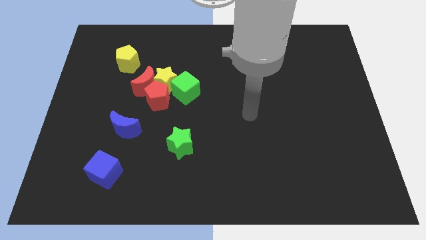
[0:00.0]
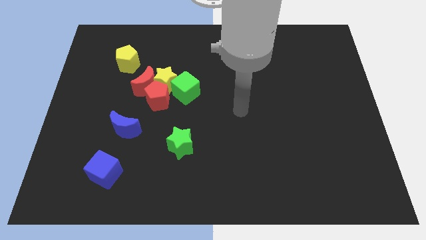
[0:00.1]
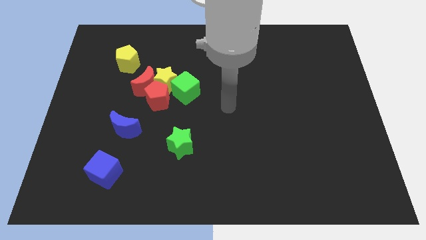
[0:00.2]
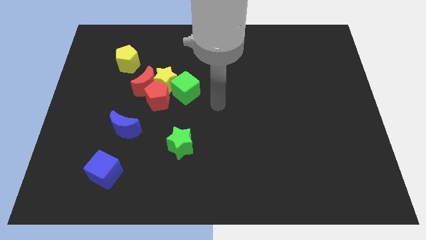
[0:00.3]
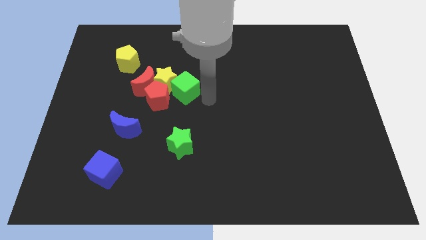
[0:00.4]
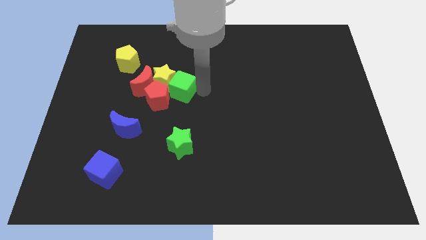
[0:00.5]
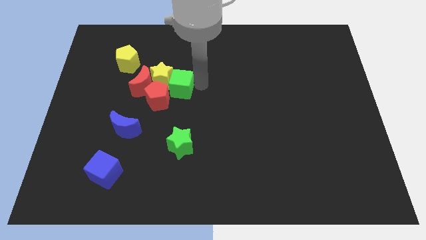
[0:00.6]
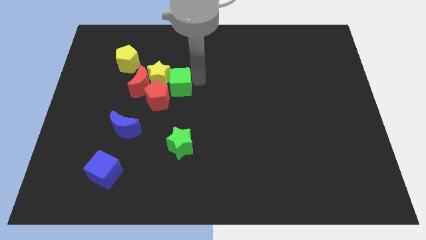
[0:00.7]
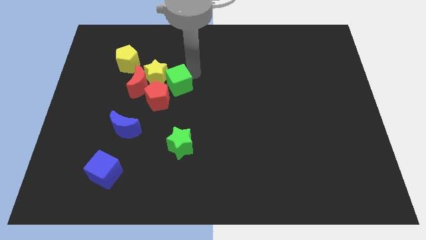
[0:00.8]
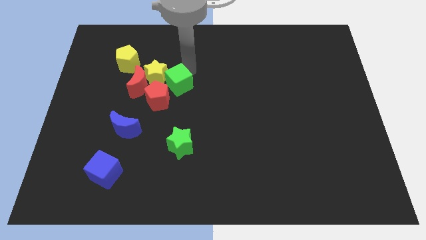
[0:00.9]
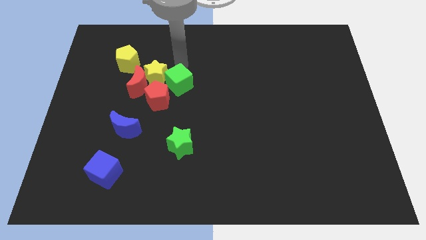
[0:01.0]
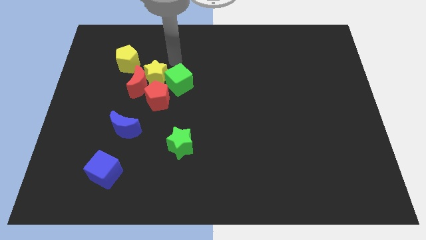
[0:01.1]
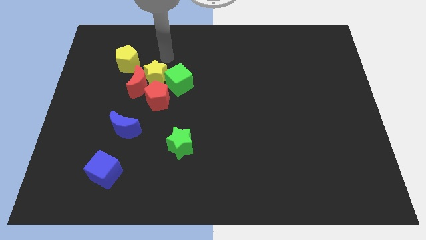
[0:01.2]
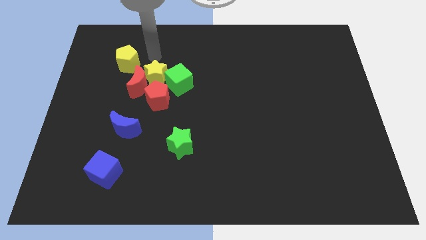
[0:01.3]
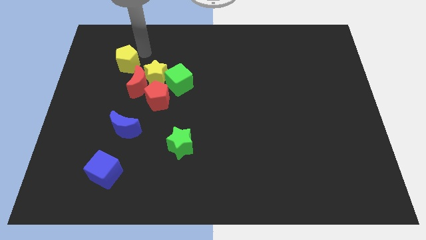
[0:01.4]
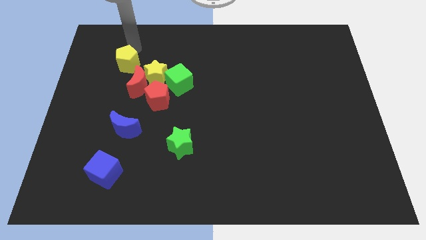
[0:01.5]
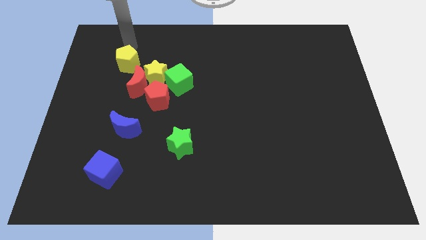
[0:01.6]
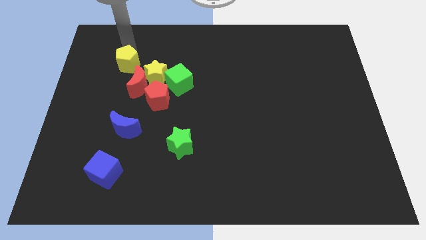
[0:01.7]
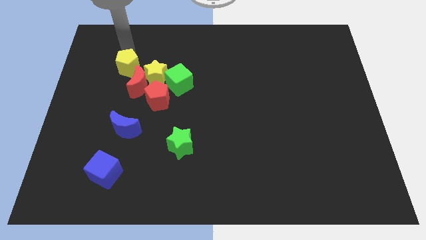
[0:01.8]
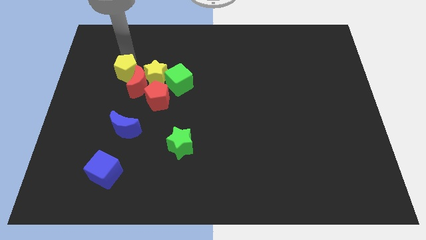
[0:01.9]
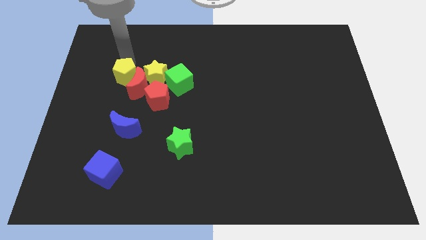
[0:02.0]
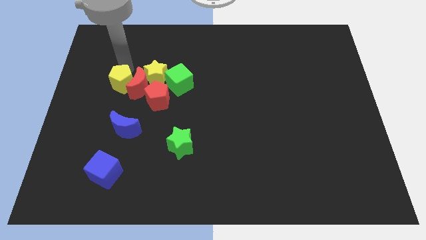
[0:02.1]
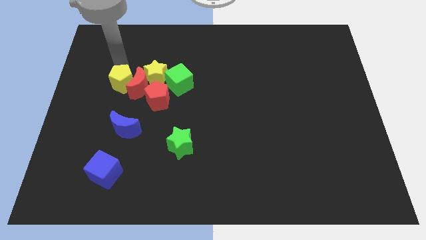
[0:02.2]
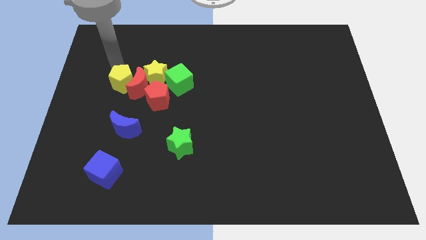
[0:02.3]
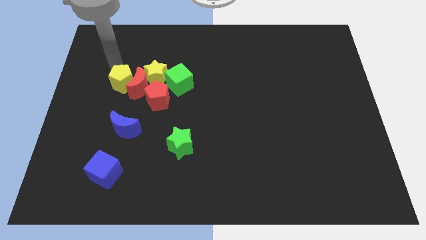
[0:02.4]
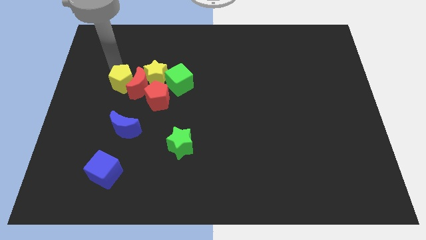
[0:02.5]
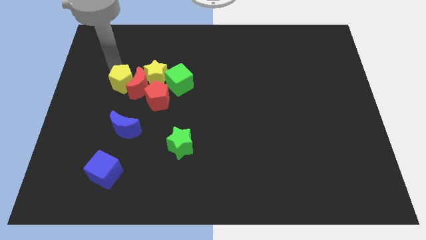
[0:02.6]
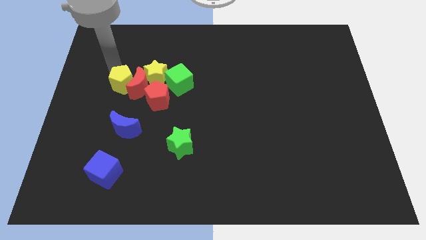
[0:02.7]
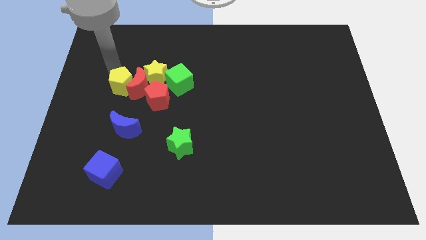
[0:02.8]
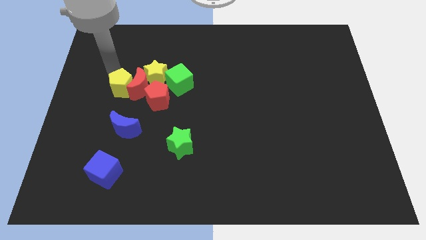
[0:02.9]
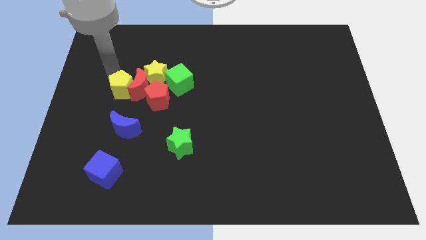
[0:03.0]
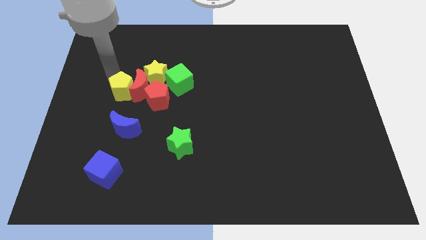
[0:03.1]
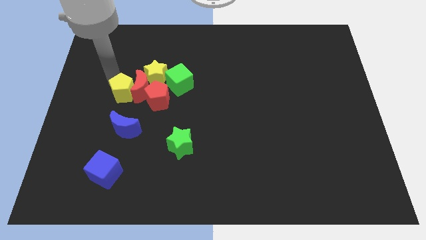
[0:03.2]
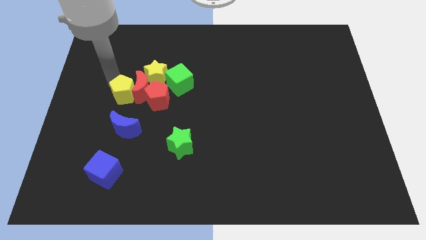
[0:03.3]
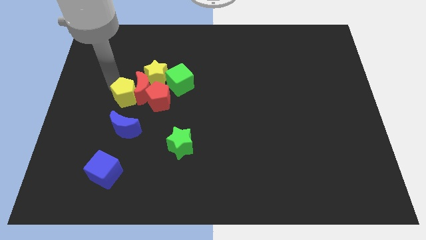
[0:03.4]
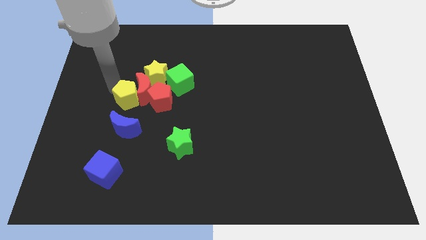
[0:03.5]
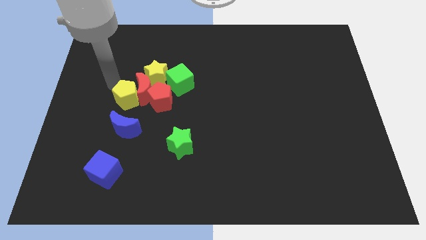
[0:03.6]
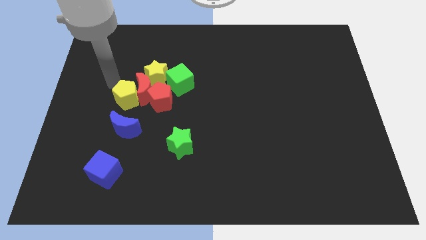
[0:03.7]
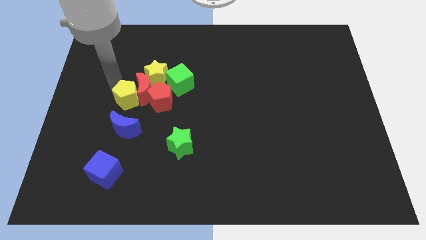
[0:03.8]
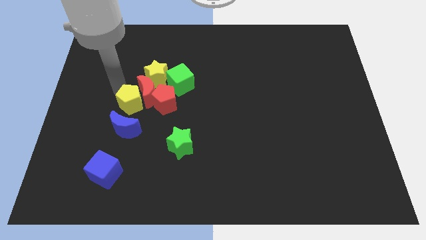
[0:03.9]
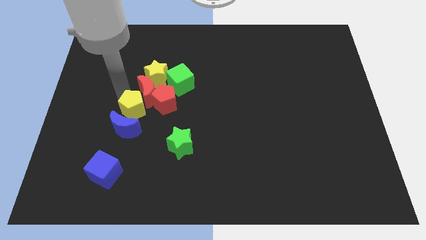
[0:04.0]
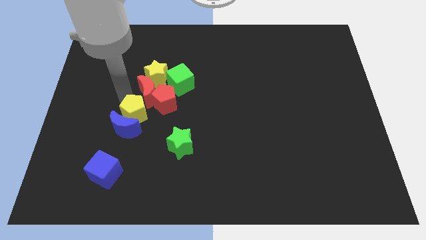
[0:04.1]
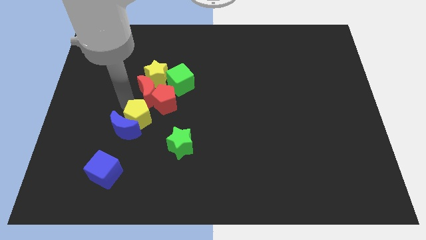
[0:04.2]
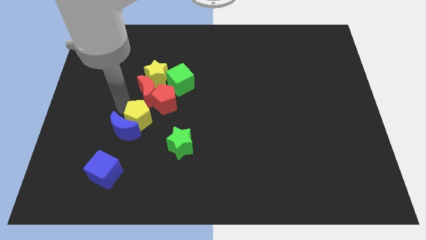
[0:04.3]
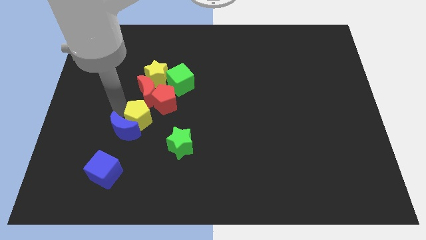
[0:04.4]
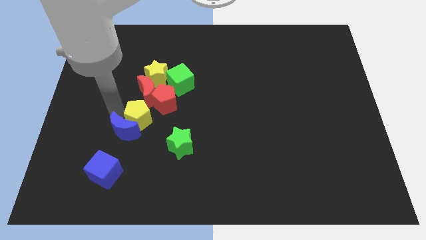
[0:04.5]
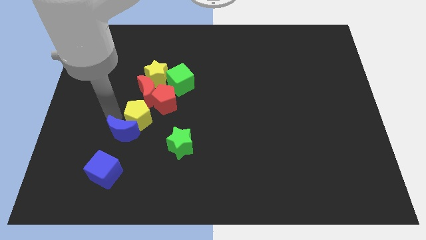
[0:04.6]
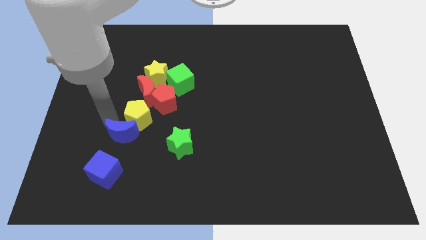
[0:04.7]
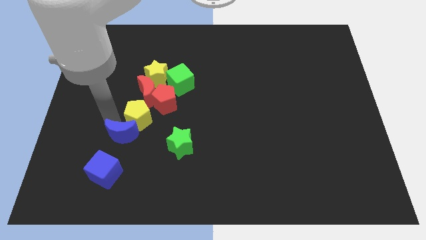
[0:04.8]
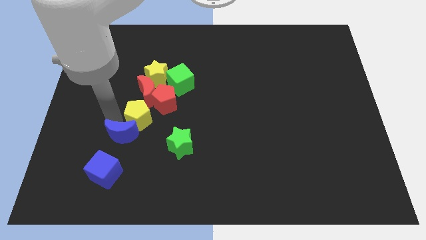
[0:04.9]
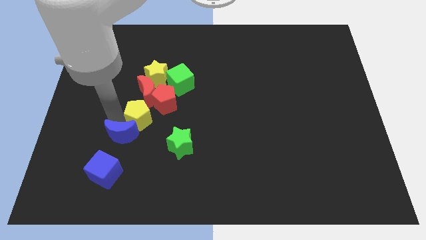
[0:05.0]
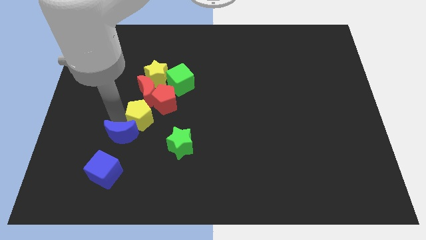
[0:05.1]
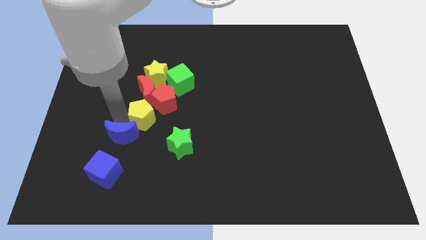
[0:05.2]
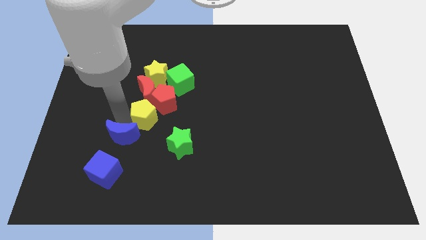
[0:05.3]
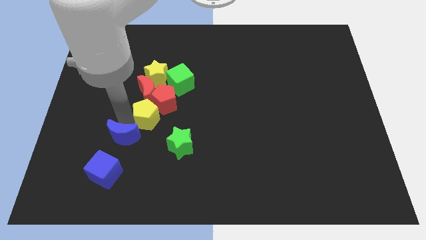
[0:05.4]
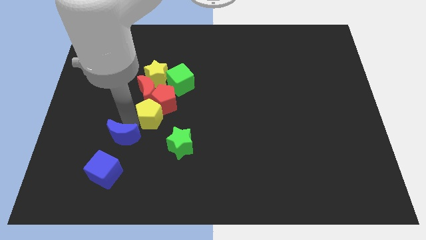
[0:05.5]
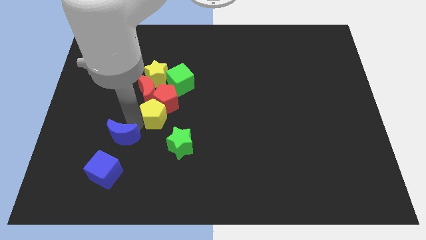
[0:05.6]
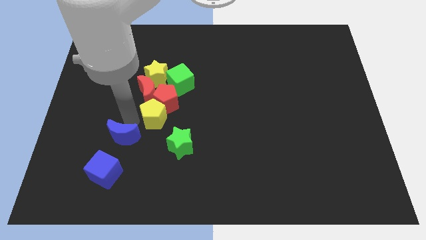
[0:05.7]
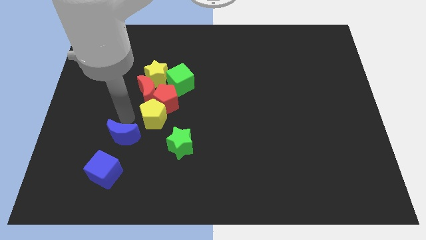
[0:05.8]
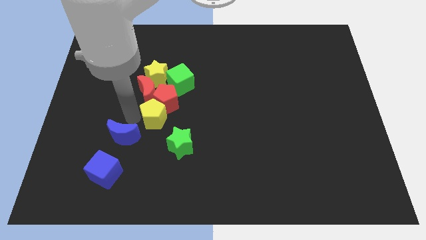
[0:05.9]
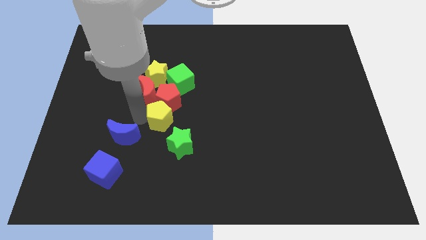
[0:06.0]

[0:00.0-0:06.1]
slide the yellow pentagon diagonally down and to the right of the red pentagon

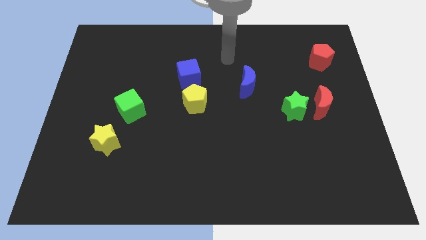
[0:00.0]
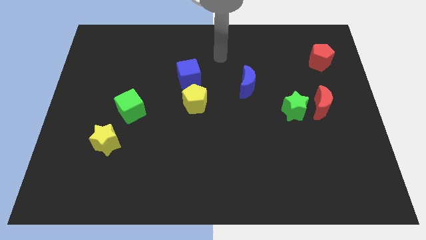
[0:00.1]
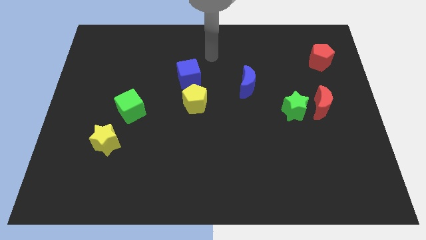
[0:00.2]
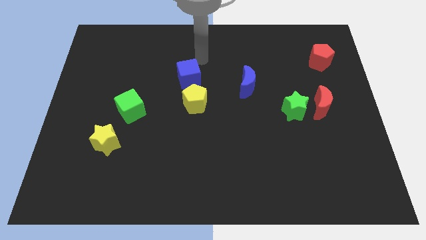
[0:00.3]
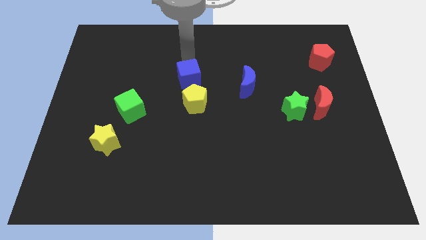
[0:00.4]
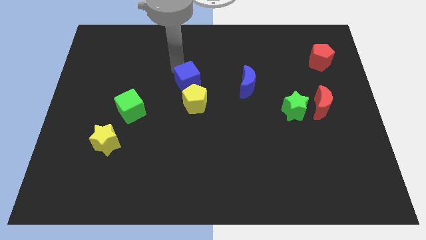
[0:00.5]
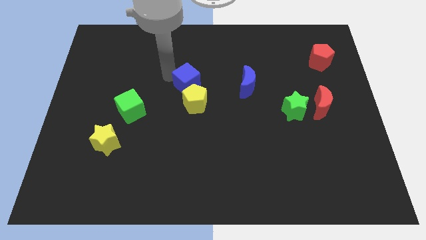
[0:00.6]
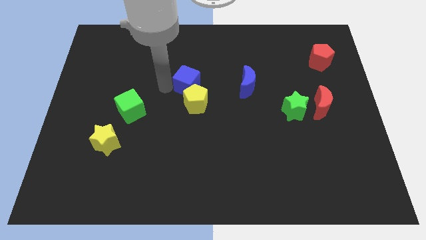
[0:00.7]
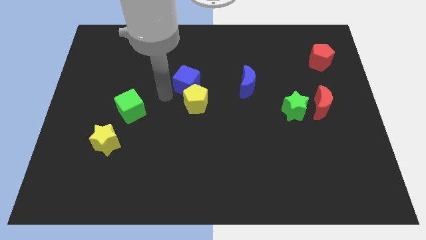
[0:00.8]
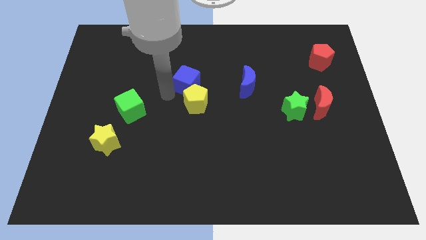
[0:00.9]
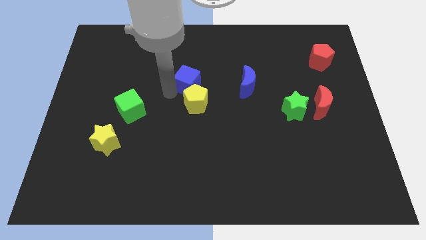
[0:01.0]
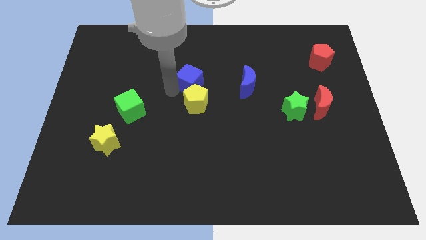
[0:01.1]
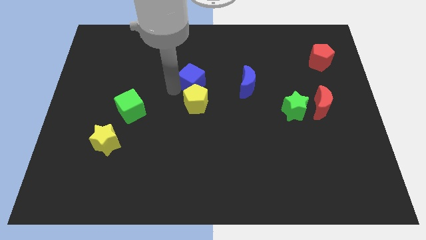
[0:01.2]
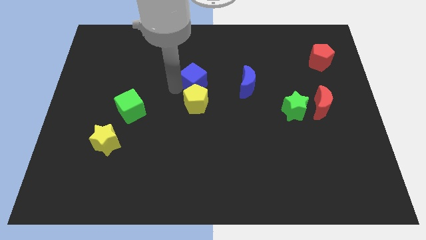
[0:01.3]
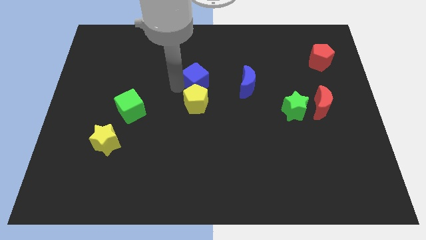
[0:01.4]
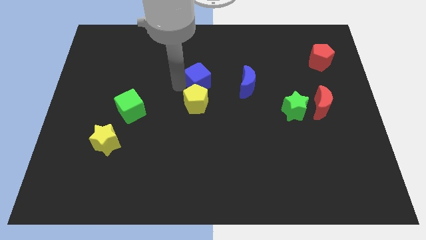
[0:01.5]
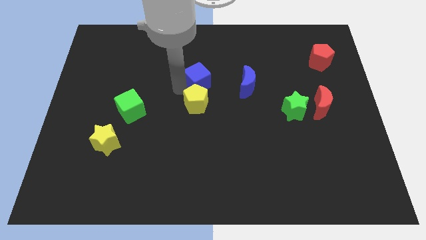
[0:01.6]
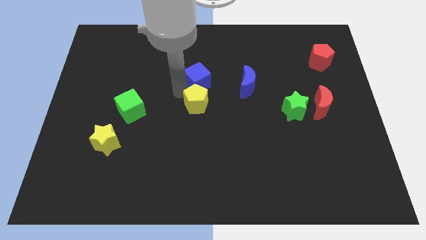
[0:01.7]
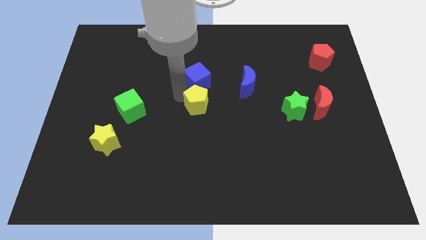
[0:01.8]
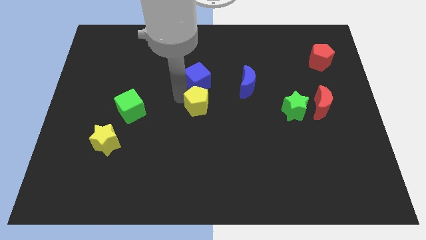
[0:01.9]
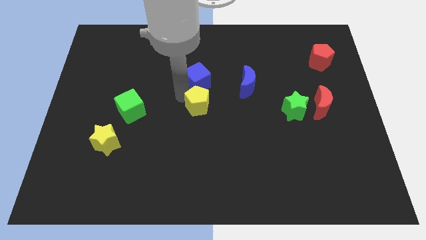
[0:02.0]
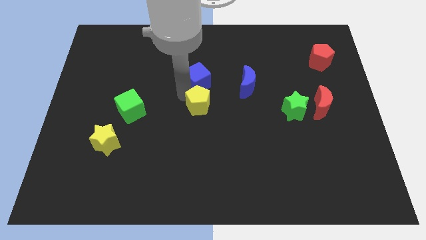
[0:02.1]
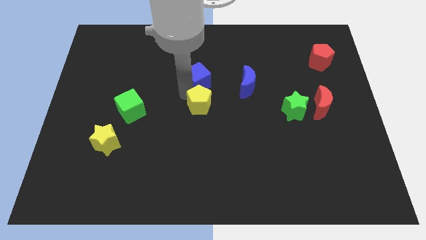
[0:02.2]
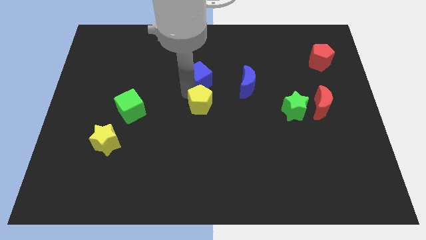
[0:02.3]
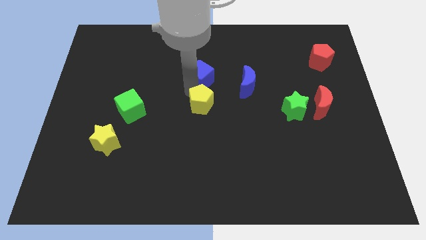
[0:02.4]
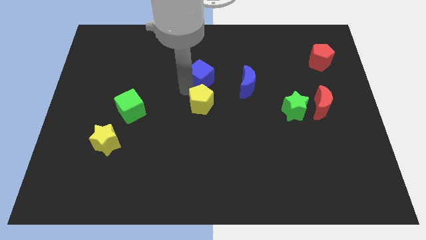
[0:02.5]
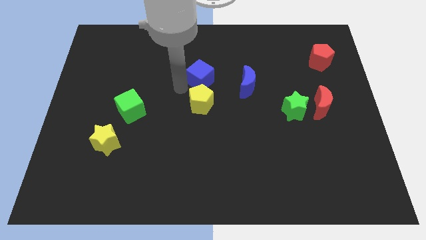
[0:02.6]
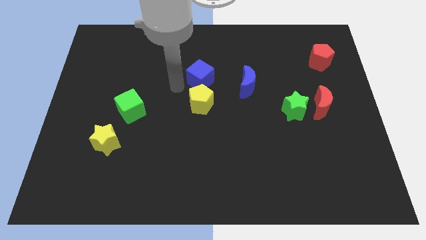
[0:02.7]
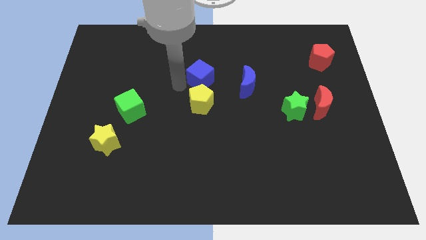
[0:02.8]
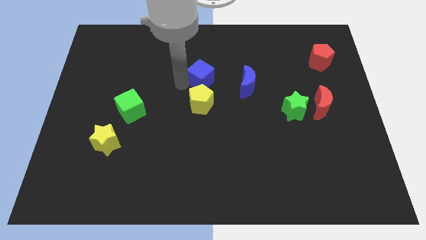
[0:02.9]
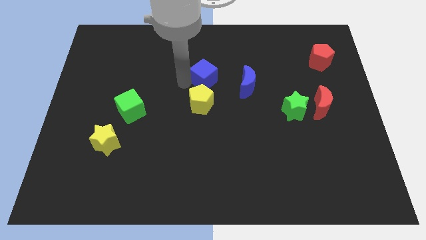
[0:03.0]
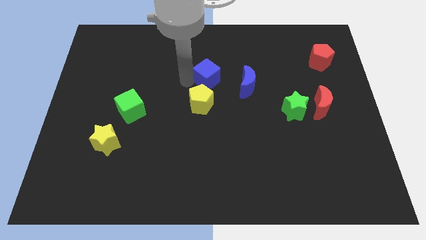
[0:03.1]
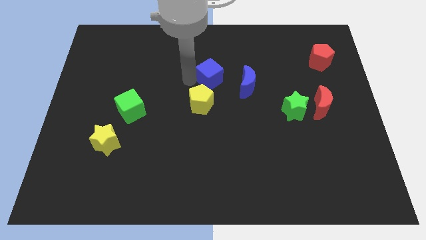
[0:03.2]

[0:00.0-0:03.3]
slide the blue cube to the top left side of the blue moon
